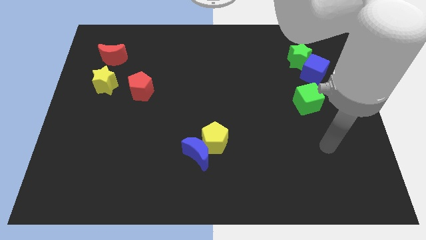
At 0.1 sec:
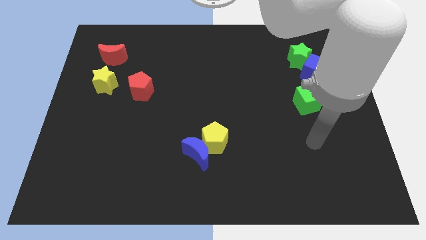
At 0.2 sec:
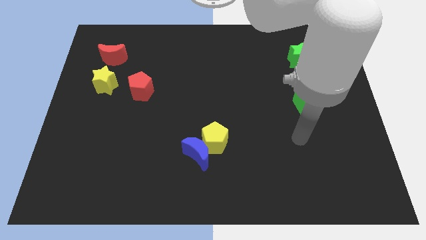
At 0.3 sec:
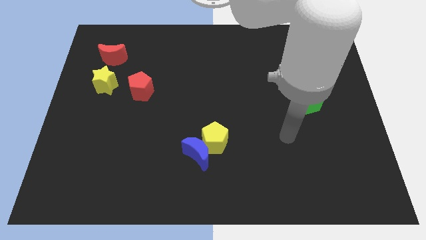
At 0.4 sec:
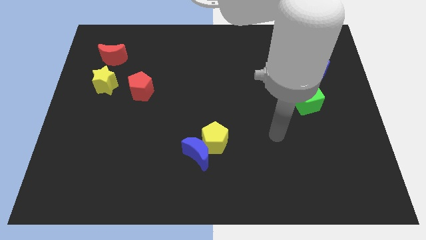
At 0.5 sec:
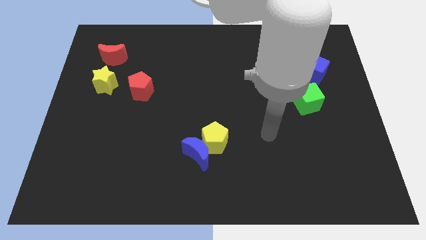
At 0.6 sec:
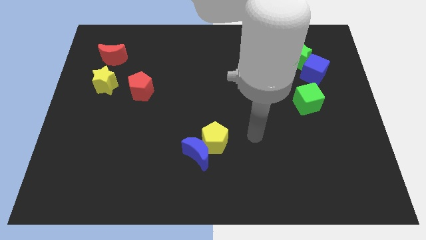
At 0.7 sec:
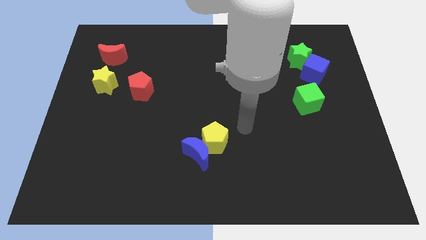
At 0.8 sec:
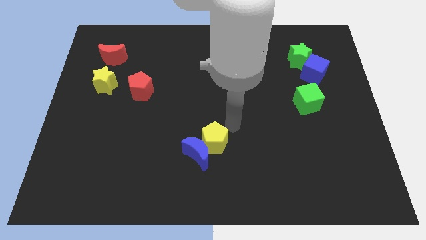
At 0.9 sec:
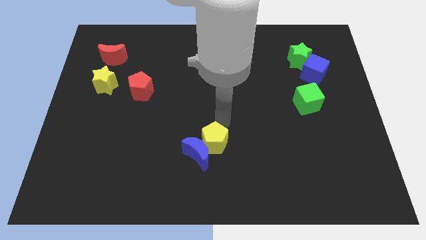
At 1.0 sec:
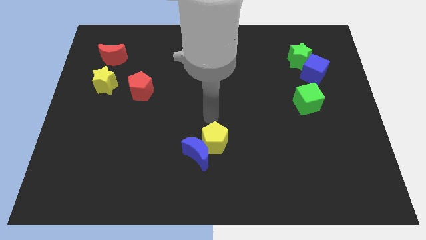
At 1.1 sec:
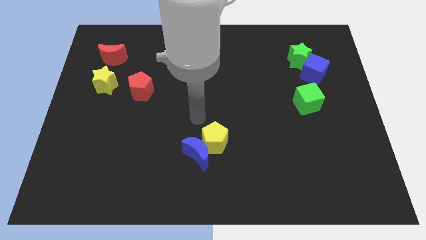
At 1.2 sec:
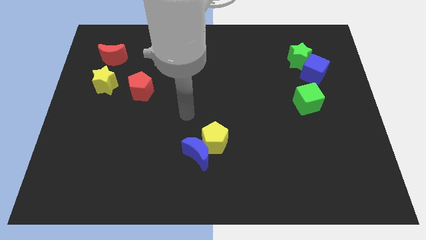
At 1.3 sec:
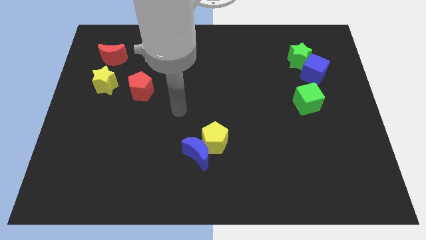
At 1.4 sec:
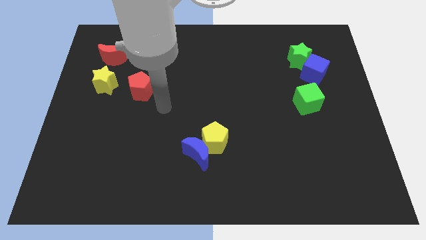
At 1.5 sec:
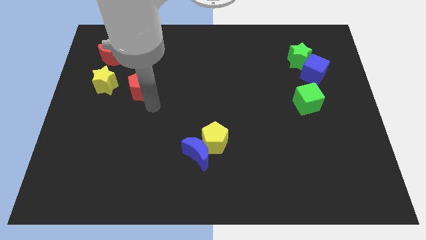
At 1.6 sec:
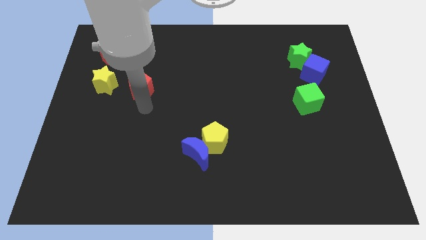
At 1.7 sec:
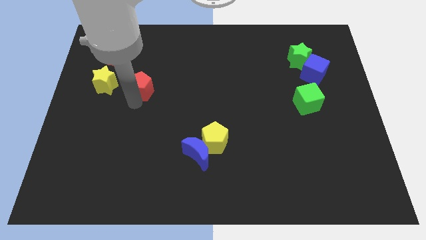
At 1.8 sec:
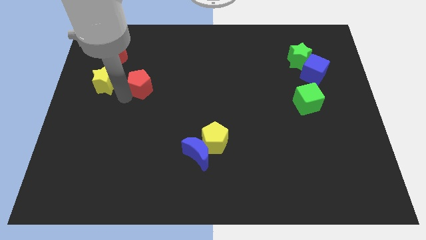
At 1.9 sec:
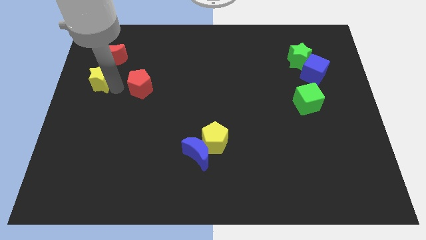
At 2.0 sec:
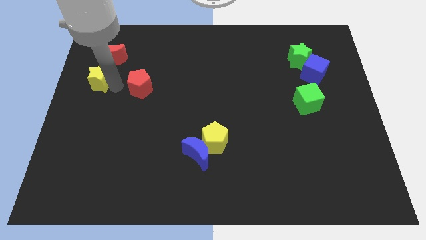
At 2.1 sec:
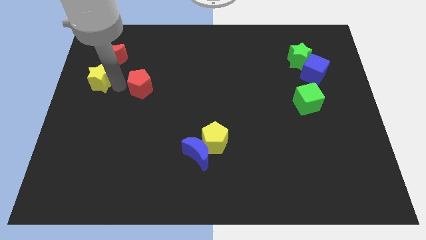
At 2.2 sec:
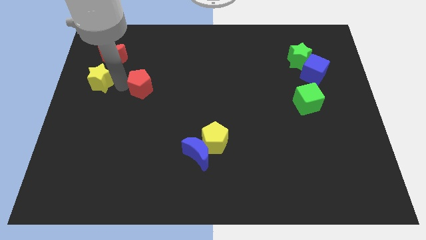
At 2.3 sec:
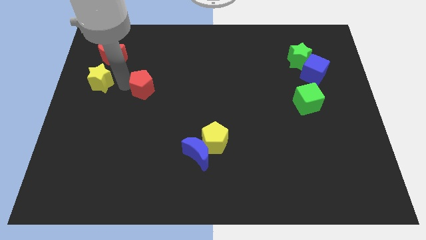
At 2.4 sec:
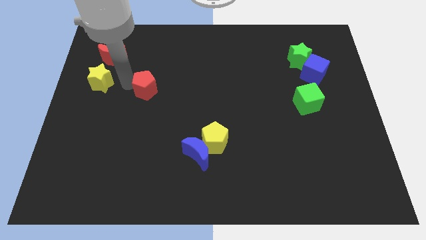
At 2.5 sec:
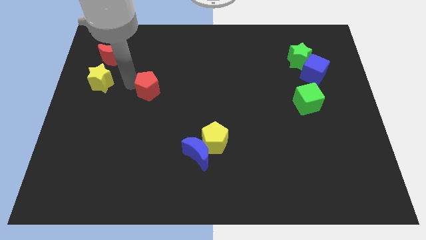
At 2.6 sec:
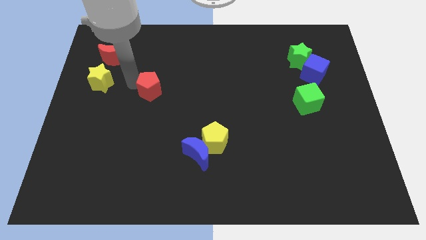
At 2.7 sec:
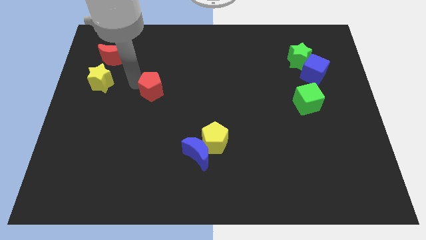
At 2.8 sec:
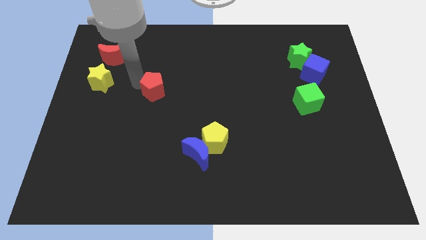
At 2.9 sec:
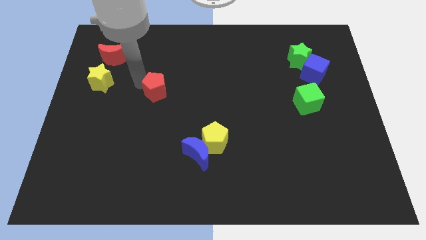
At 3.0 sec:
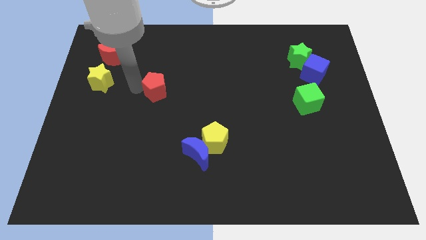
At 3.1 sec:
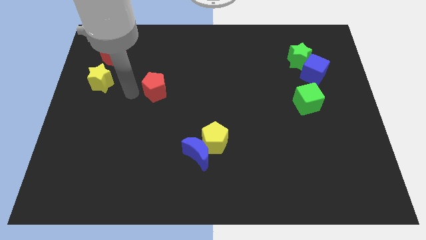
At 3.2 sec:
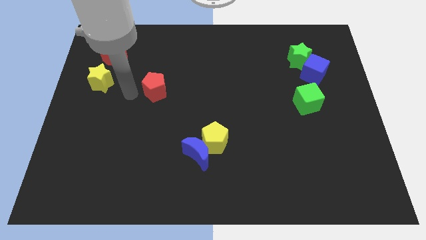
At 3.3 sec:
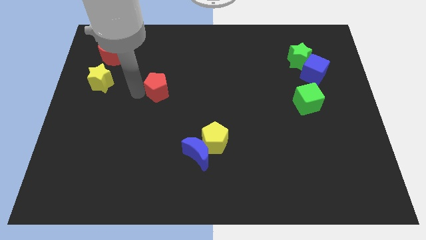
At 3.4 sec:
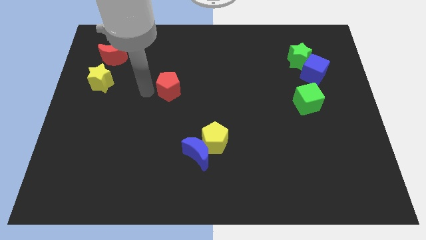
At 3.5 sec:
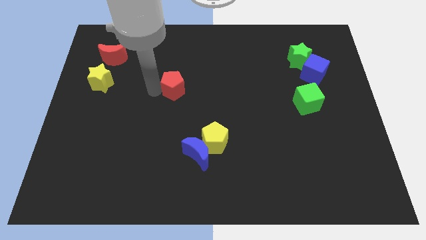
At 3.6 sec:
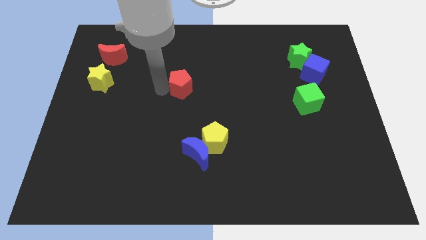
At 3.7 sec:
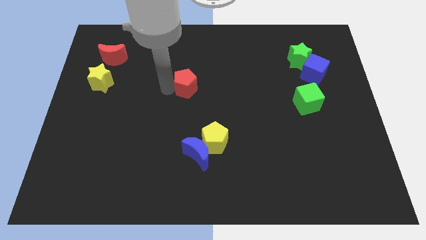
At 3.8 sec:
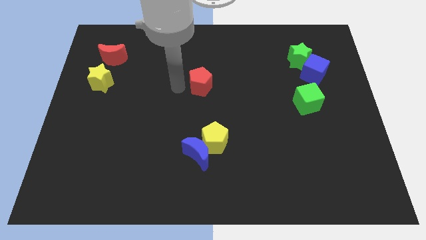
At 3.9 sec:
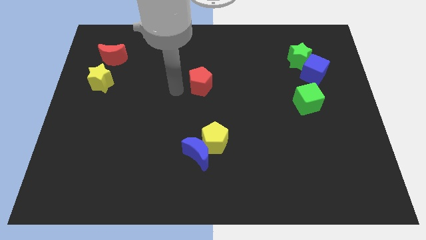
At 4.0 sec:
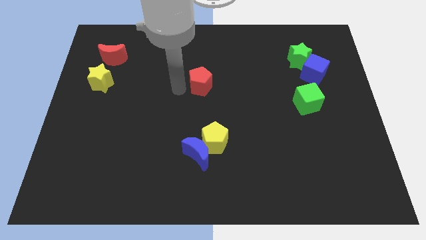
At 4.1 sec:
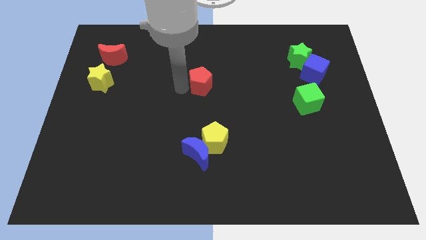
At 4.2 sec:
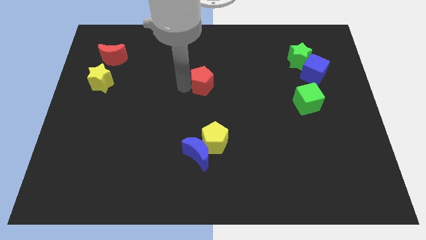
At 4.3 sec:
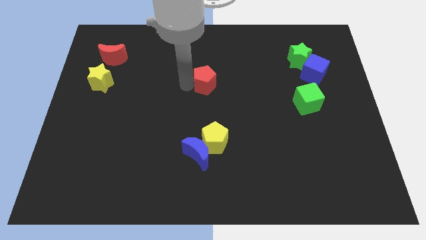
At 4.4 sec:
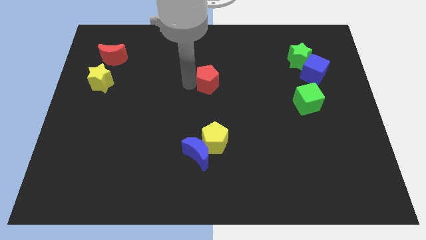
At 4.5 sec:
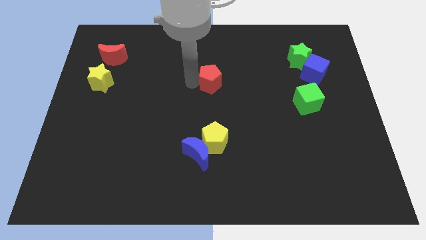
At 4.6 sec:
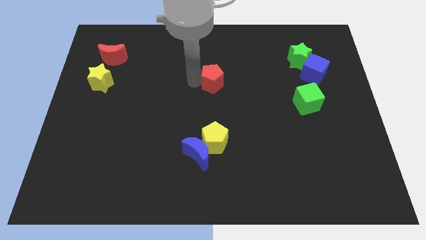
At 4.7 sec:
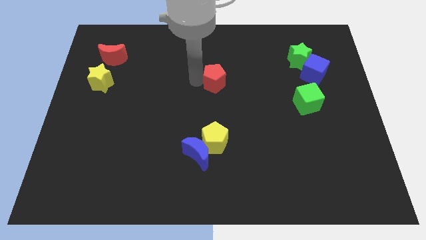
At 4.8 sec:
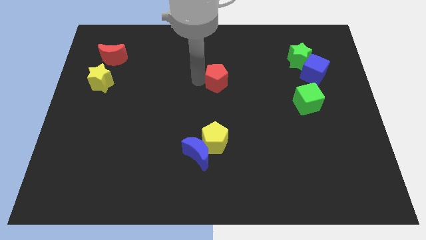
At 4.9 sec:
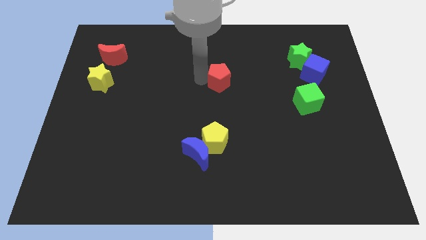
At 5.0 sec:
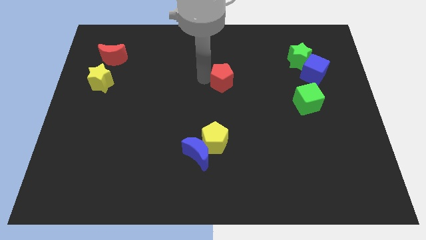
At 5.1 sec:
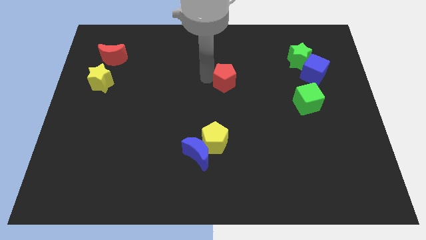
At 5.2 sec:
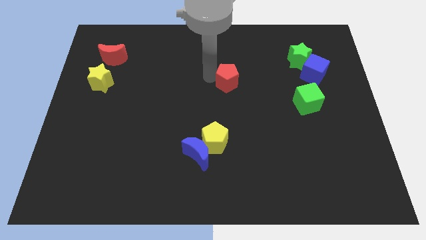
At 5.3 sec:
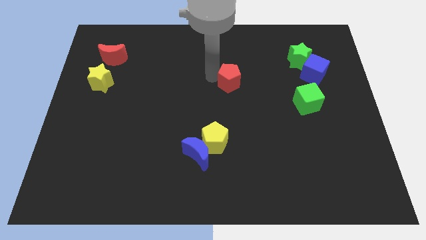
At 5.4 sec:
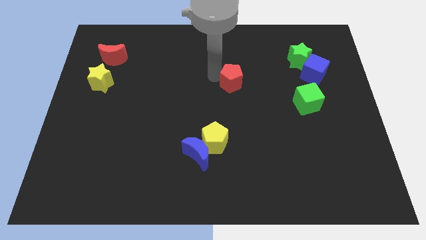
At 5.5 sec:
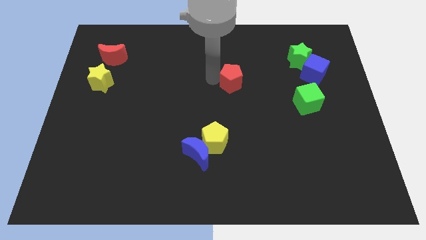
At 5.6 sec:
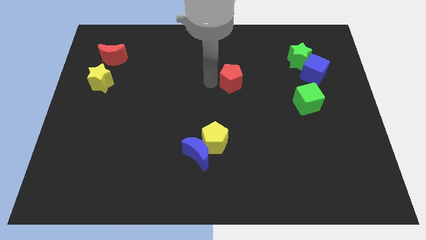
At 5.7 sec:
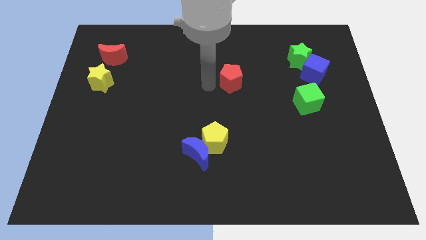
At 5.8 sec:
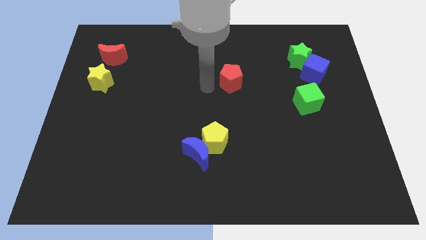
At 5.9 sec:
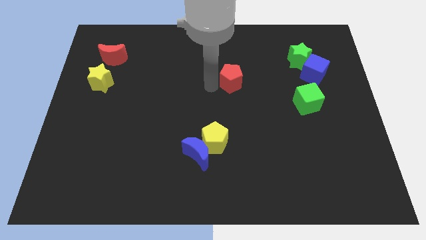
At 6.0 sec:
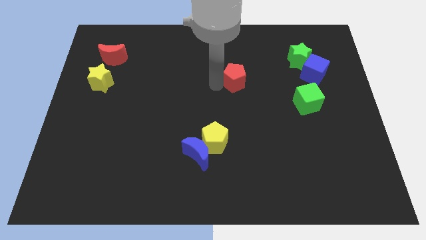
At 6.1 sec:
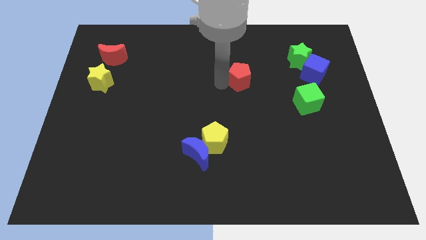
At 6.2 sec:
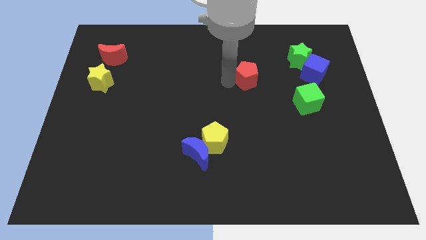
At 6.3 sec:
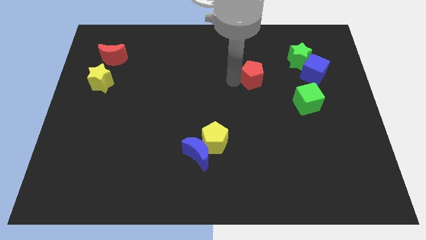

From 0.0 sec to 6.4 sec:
push the red pentagon to the left side of the blue cube

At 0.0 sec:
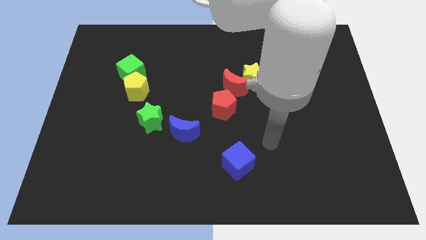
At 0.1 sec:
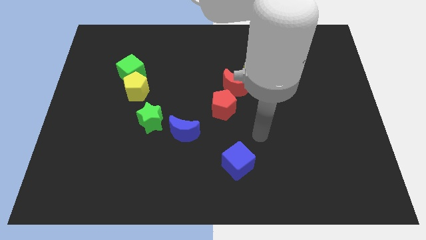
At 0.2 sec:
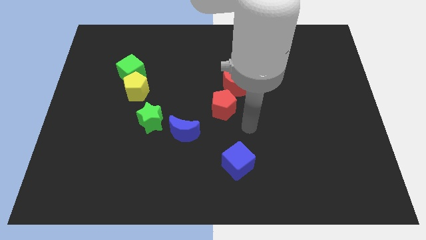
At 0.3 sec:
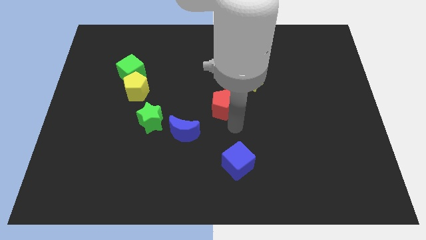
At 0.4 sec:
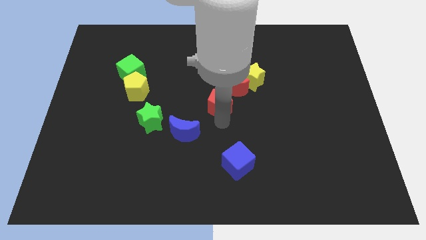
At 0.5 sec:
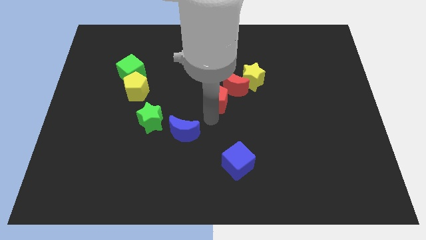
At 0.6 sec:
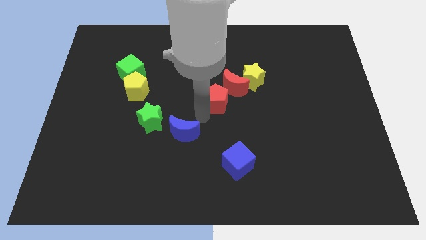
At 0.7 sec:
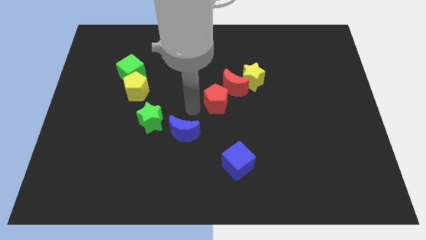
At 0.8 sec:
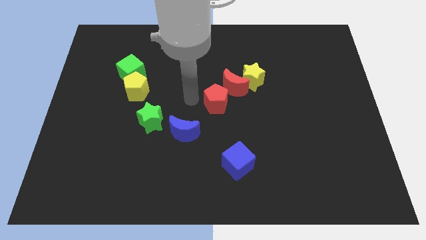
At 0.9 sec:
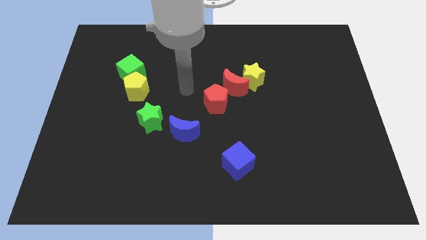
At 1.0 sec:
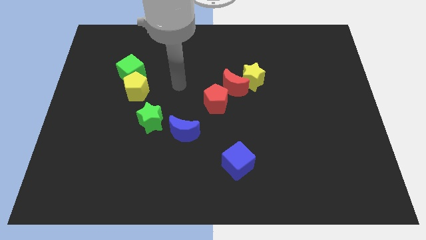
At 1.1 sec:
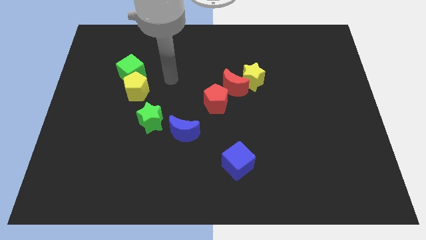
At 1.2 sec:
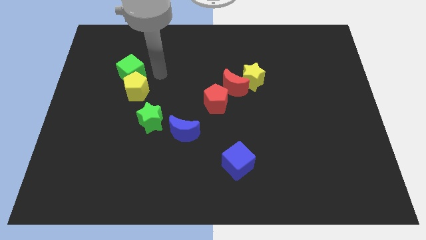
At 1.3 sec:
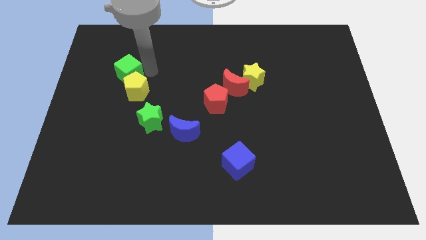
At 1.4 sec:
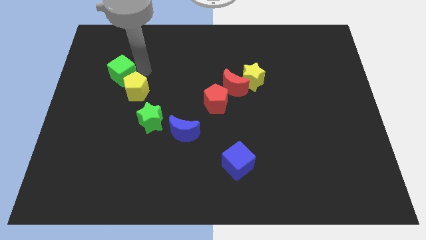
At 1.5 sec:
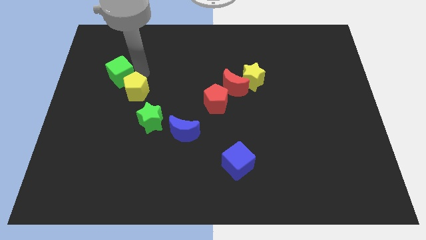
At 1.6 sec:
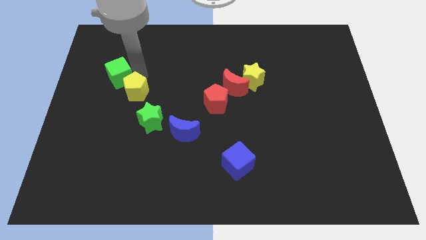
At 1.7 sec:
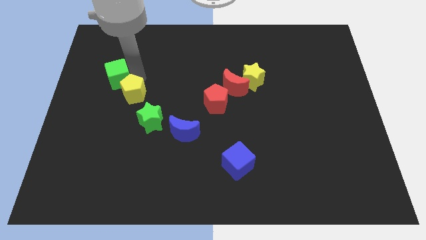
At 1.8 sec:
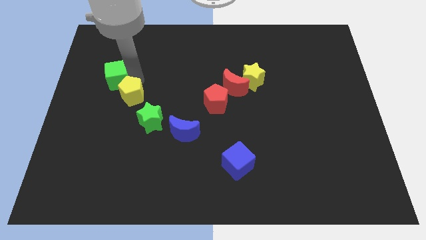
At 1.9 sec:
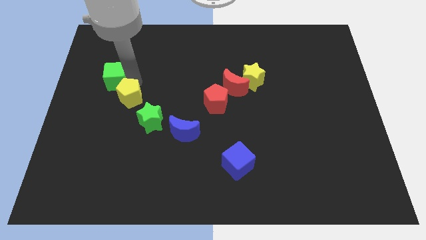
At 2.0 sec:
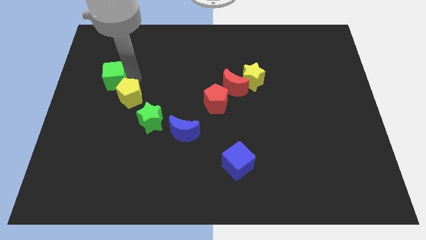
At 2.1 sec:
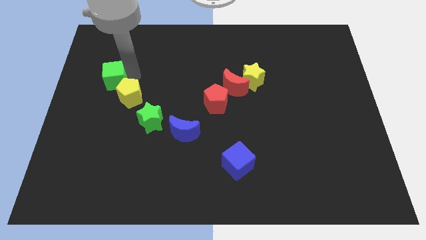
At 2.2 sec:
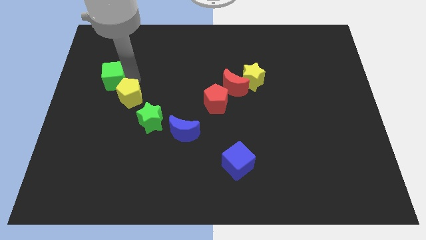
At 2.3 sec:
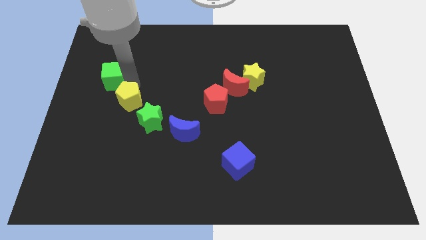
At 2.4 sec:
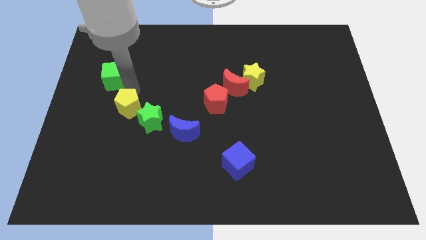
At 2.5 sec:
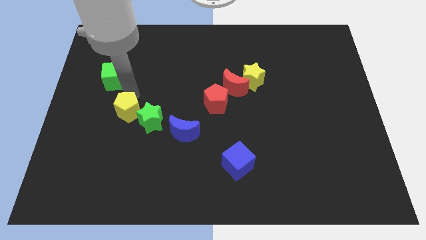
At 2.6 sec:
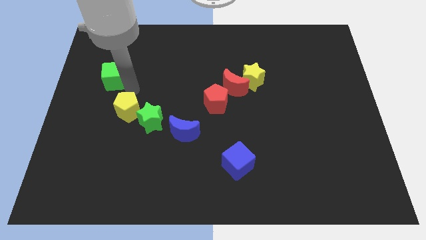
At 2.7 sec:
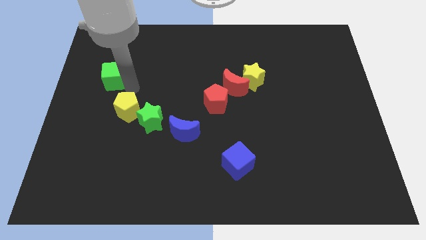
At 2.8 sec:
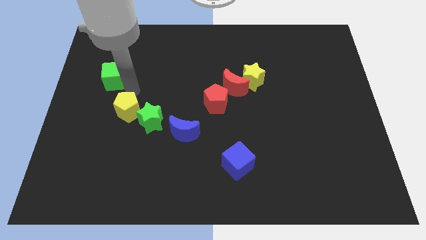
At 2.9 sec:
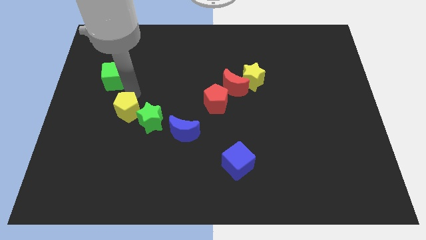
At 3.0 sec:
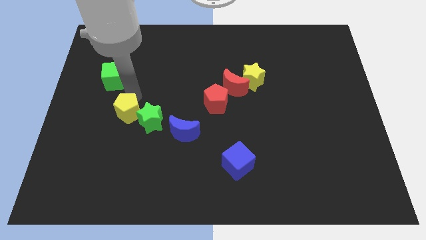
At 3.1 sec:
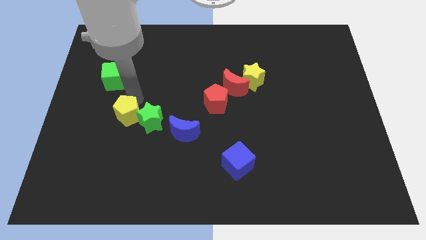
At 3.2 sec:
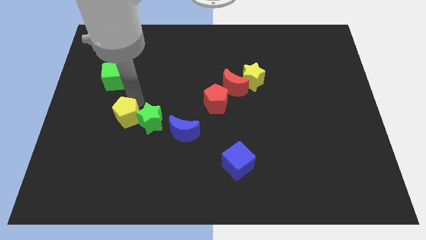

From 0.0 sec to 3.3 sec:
put the yellow pentagon diagonally down and to the left of the green star
